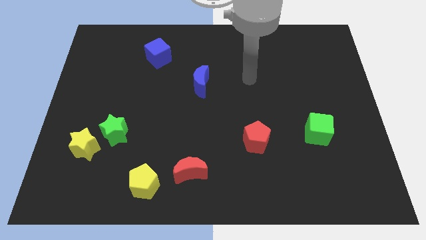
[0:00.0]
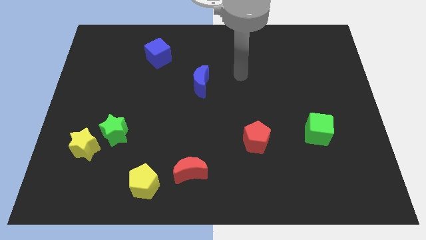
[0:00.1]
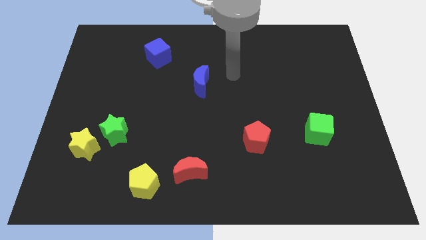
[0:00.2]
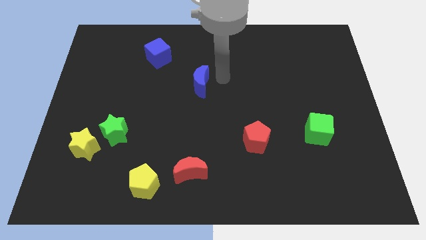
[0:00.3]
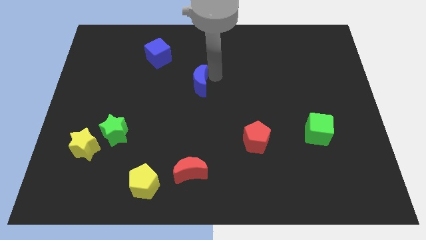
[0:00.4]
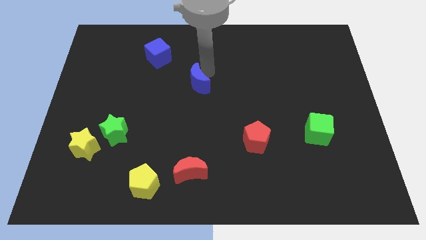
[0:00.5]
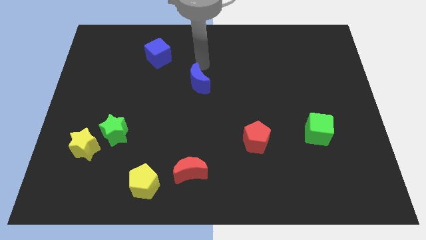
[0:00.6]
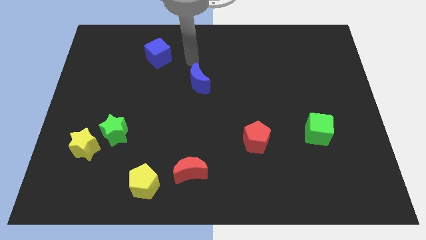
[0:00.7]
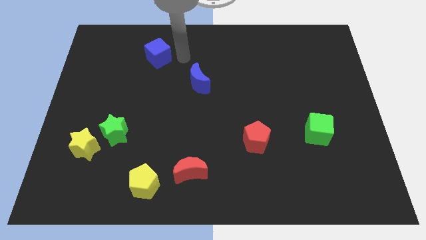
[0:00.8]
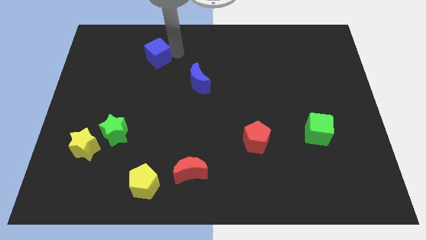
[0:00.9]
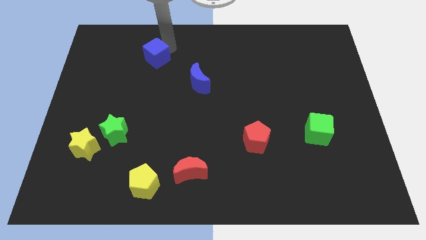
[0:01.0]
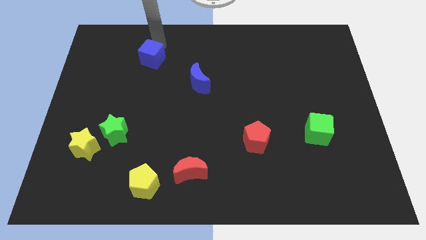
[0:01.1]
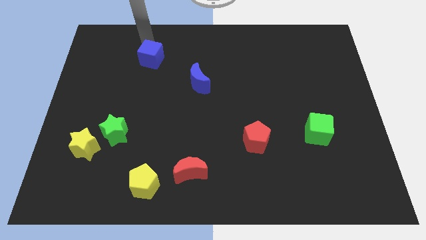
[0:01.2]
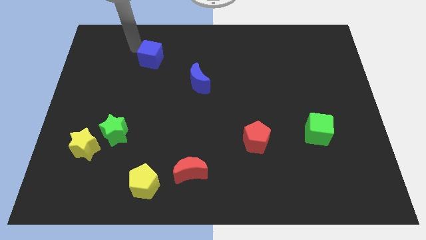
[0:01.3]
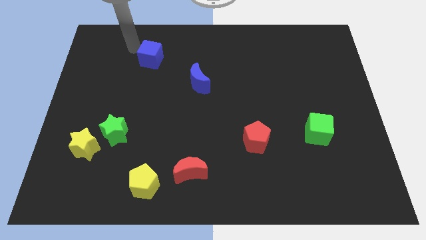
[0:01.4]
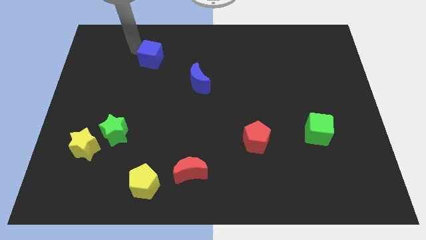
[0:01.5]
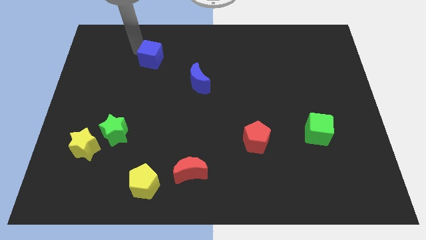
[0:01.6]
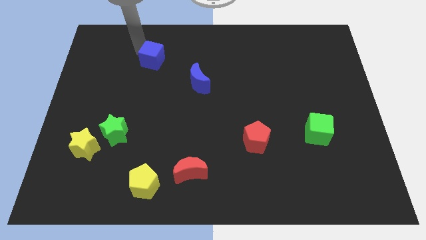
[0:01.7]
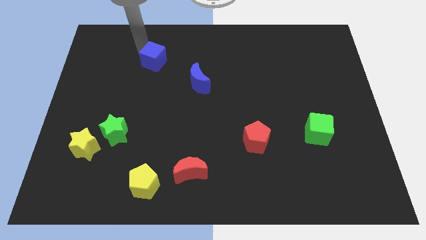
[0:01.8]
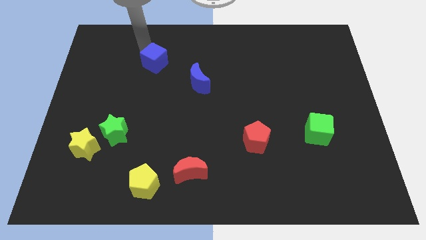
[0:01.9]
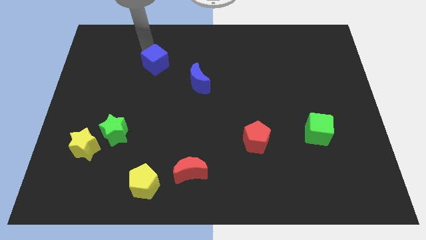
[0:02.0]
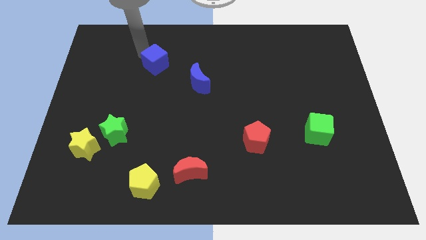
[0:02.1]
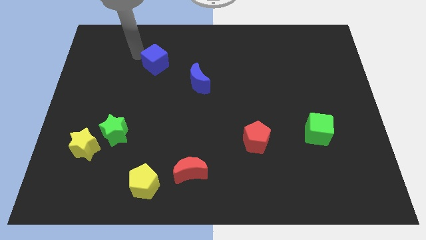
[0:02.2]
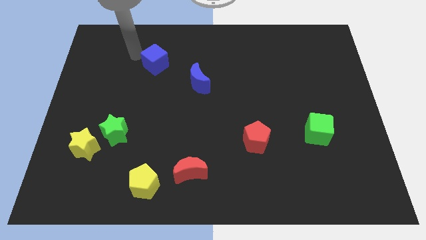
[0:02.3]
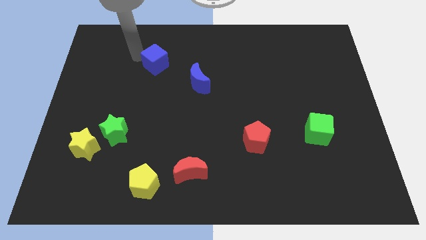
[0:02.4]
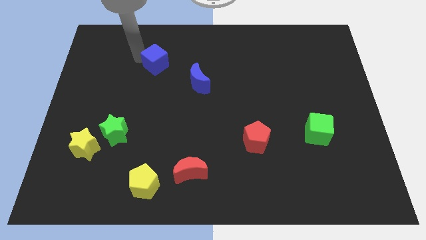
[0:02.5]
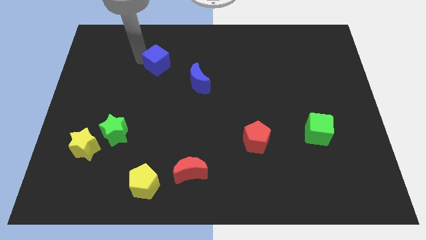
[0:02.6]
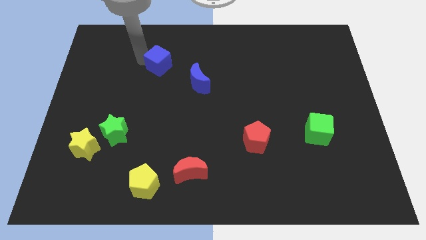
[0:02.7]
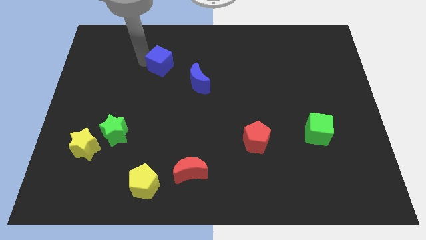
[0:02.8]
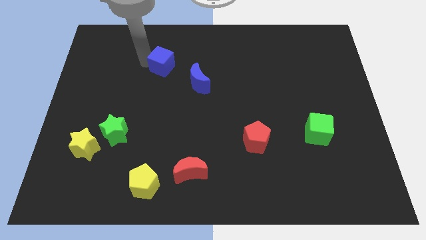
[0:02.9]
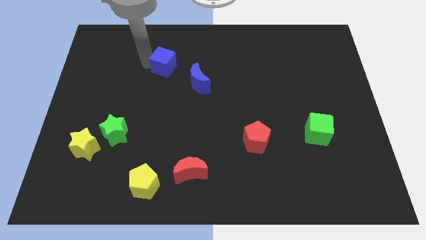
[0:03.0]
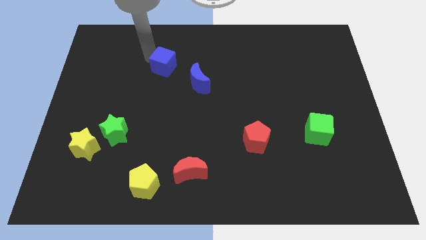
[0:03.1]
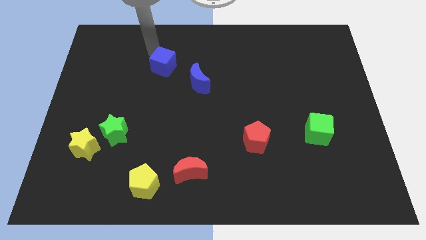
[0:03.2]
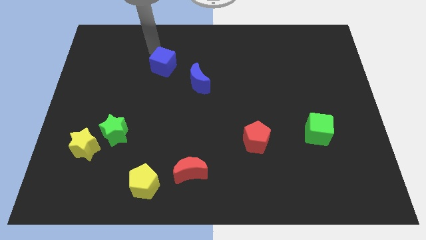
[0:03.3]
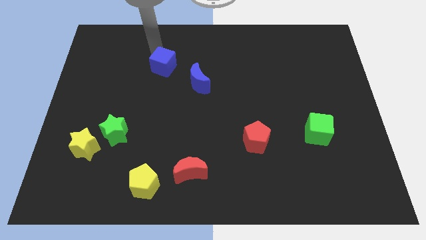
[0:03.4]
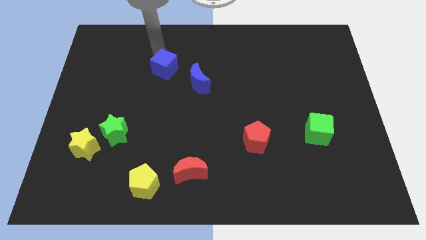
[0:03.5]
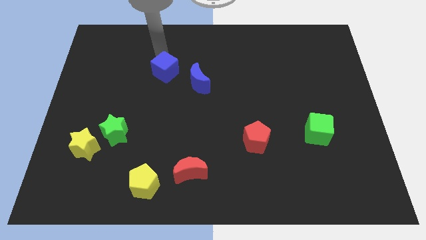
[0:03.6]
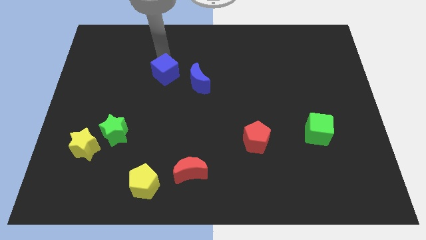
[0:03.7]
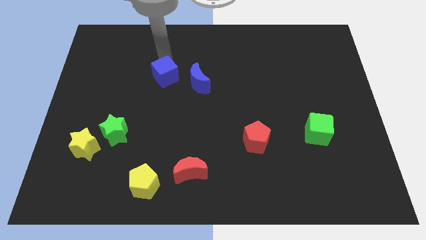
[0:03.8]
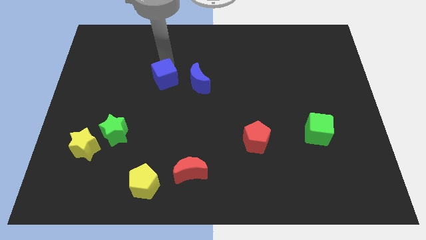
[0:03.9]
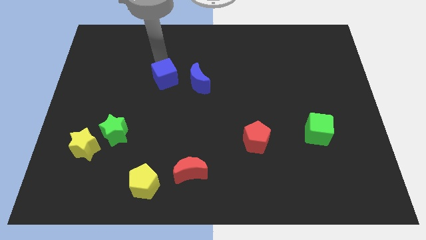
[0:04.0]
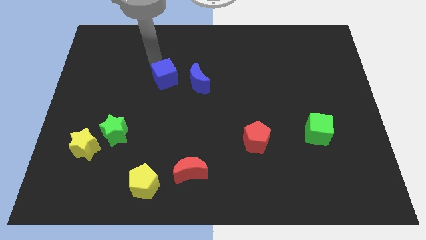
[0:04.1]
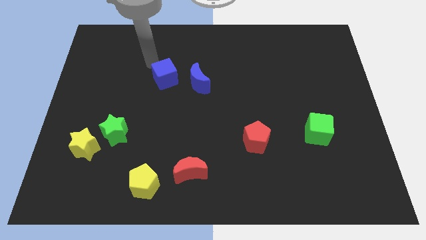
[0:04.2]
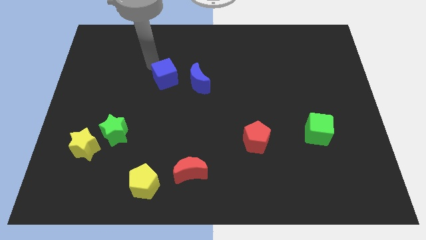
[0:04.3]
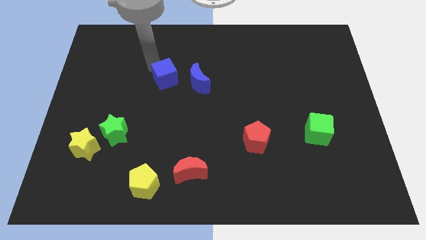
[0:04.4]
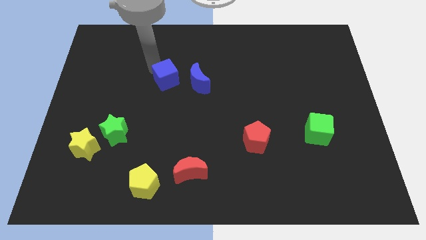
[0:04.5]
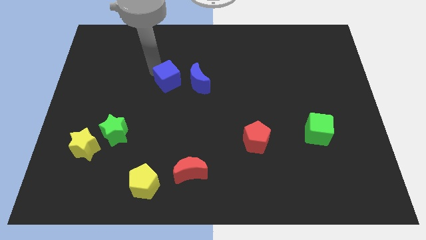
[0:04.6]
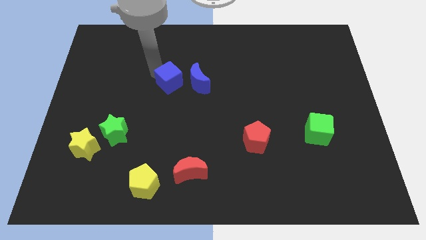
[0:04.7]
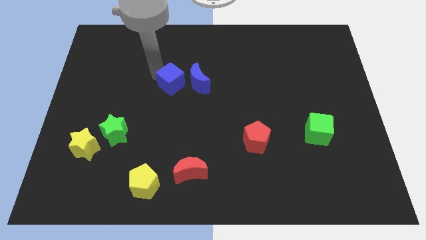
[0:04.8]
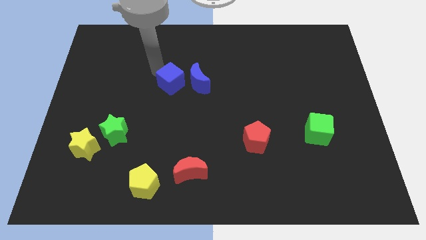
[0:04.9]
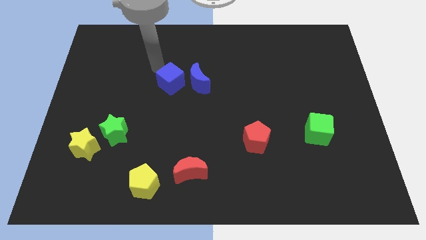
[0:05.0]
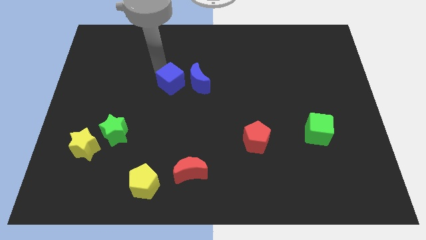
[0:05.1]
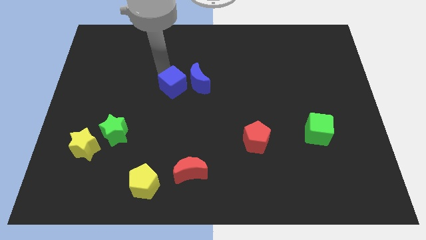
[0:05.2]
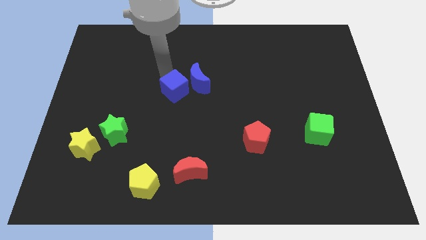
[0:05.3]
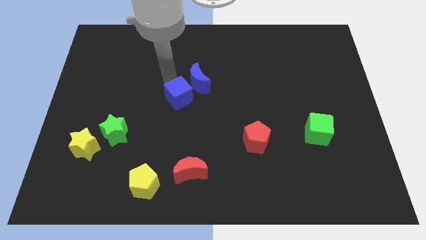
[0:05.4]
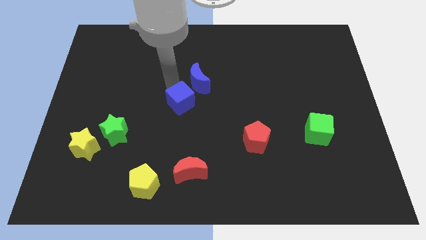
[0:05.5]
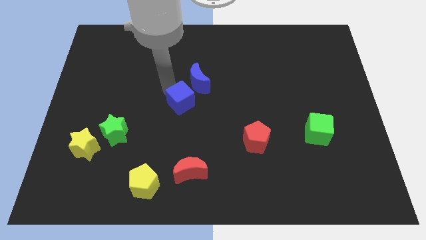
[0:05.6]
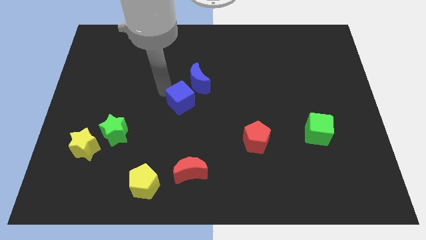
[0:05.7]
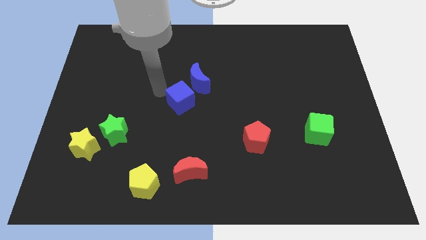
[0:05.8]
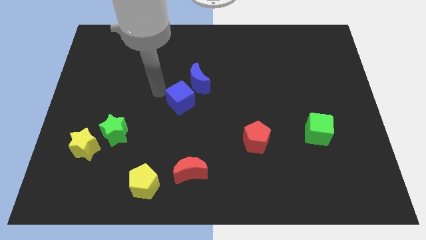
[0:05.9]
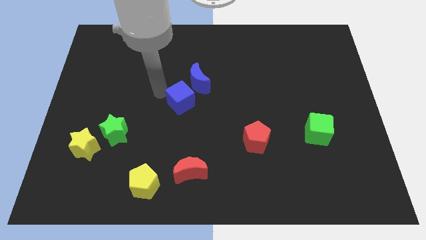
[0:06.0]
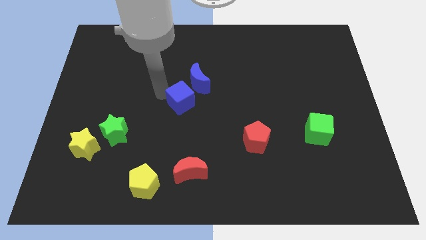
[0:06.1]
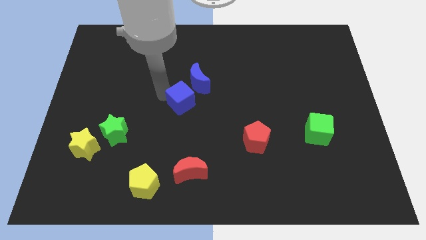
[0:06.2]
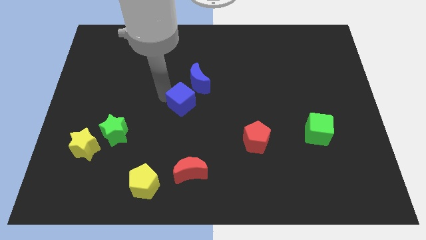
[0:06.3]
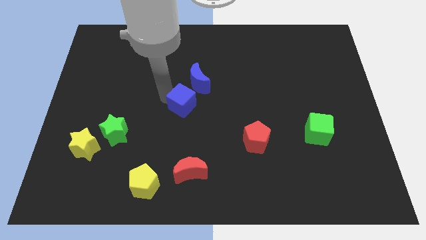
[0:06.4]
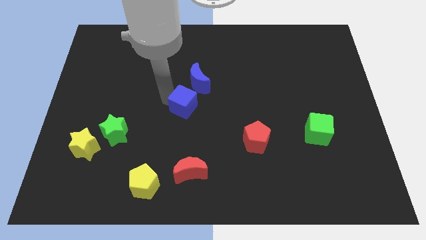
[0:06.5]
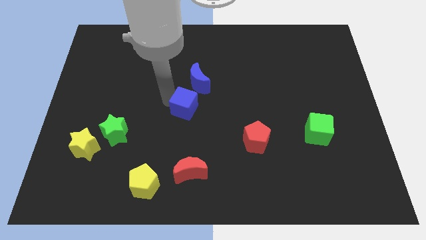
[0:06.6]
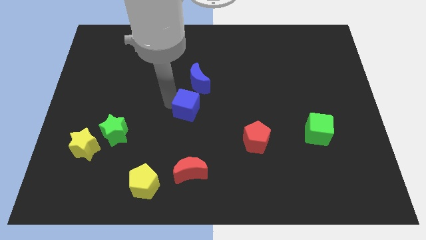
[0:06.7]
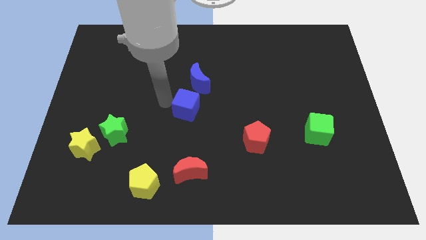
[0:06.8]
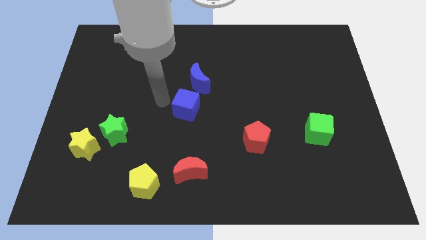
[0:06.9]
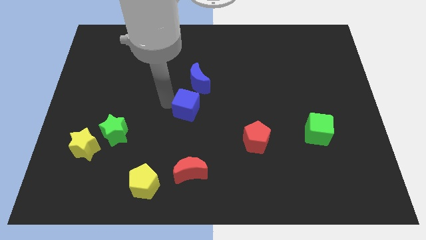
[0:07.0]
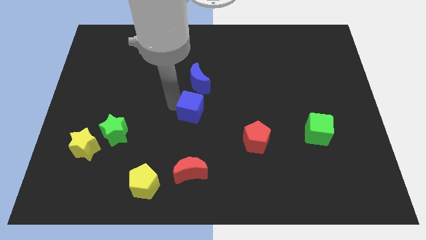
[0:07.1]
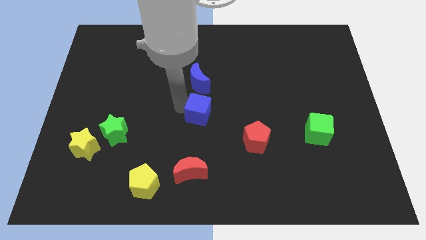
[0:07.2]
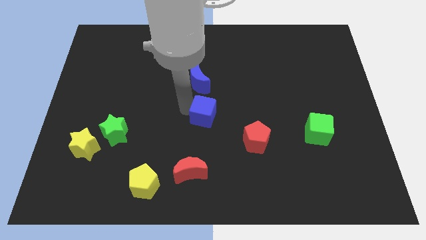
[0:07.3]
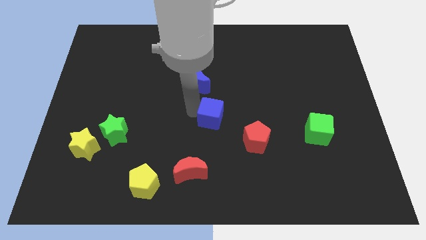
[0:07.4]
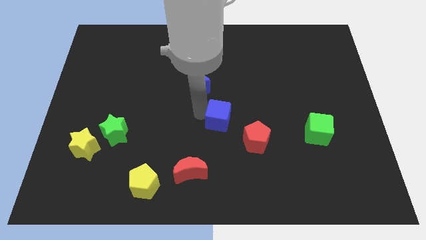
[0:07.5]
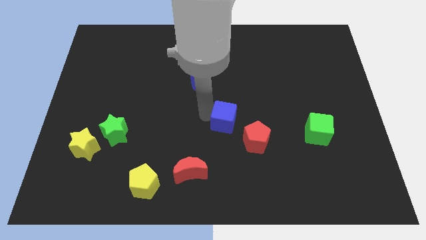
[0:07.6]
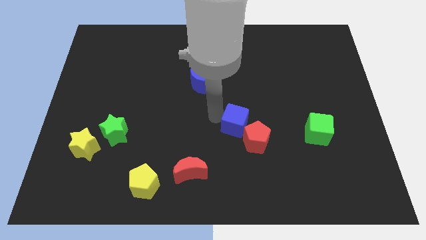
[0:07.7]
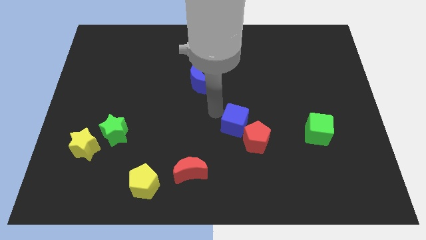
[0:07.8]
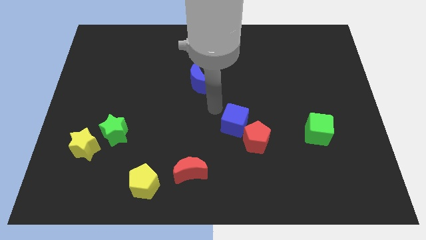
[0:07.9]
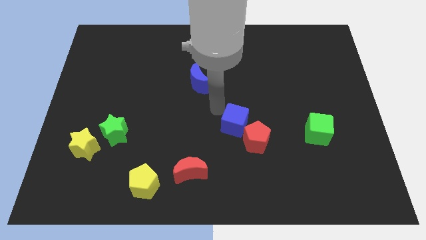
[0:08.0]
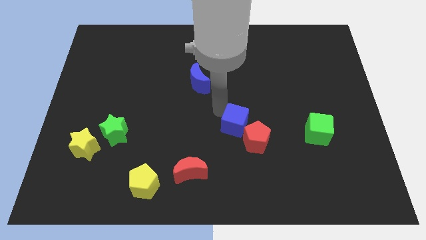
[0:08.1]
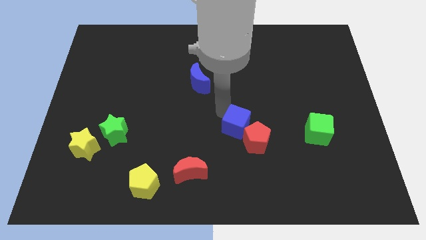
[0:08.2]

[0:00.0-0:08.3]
put the blue cube next to the red pentagon
